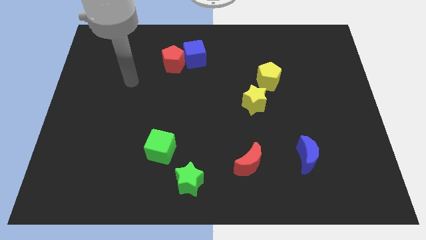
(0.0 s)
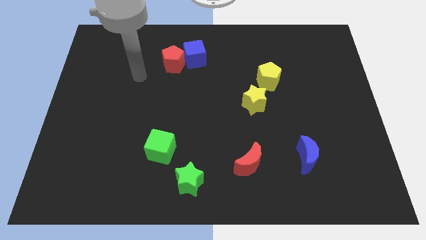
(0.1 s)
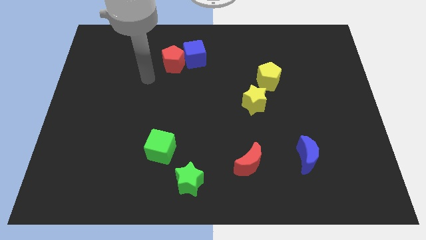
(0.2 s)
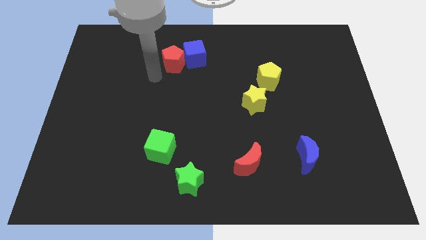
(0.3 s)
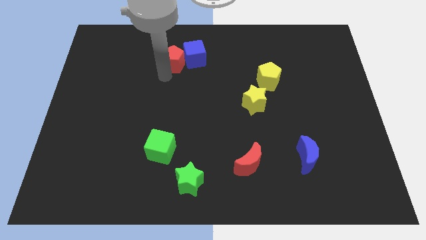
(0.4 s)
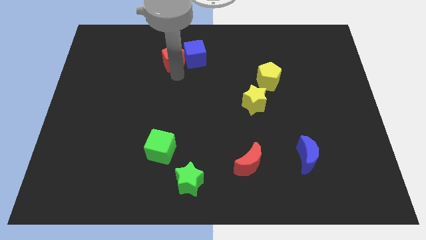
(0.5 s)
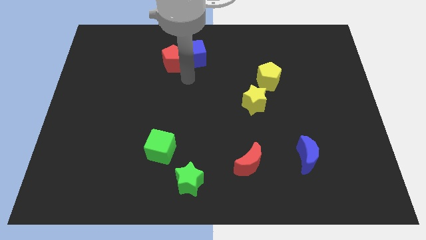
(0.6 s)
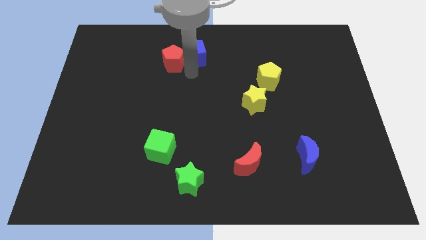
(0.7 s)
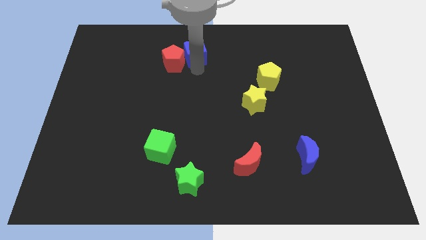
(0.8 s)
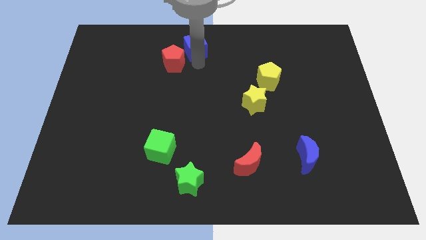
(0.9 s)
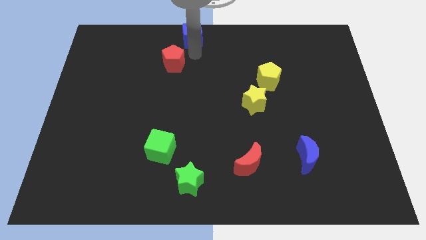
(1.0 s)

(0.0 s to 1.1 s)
move the red pentagon away from the blue cube

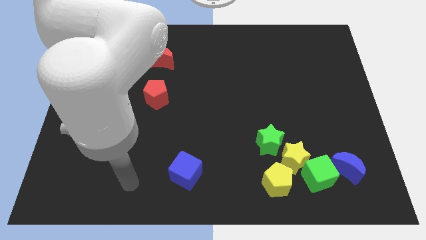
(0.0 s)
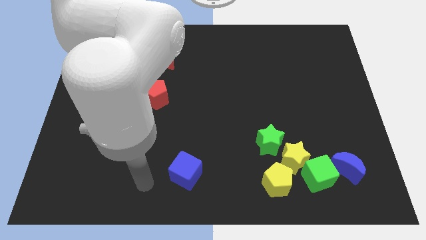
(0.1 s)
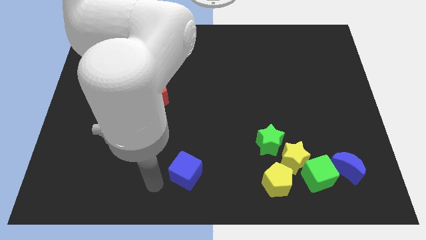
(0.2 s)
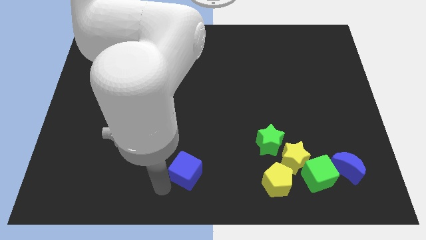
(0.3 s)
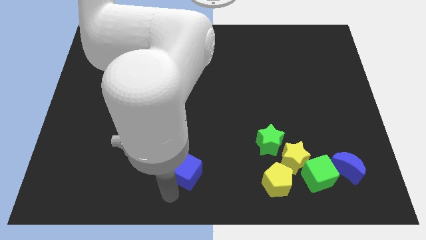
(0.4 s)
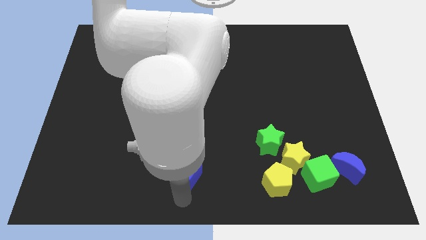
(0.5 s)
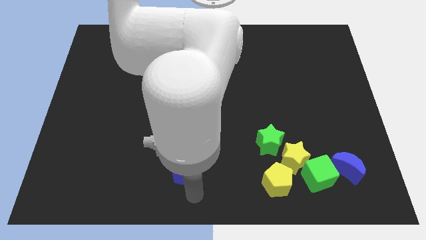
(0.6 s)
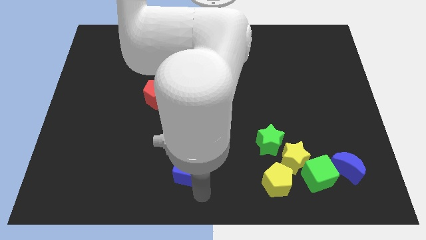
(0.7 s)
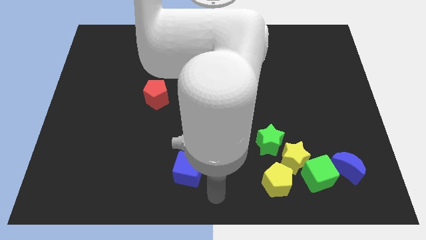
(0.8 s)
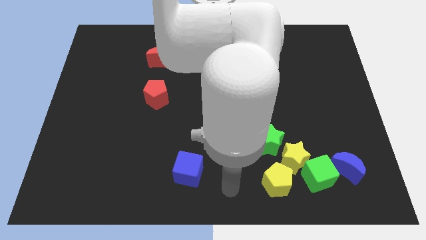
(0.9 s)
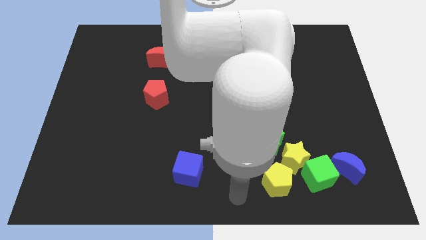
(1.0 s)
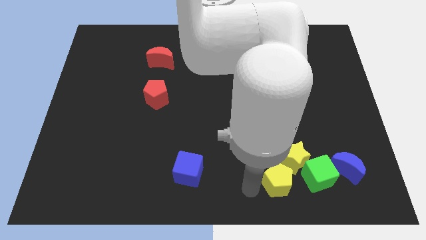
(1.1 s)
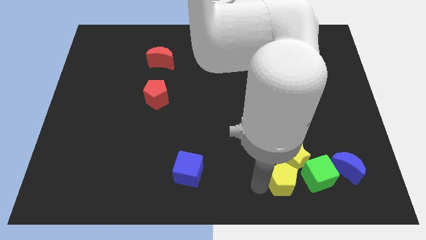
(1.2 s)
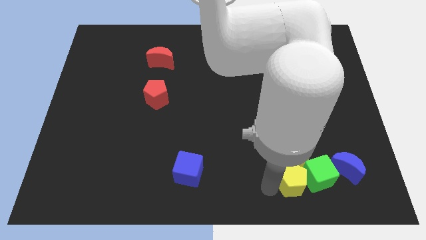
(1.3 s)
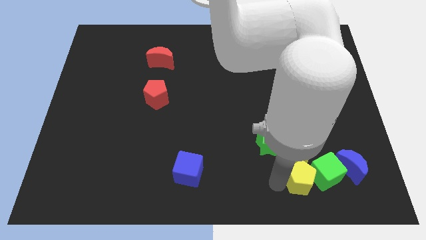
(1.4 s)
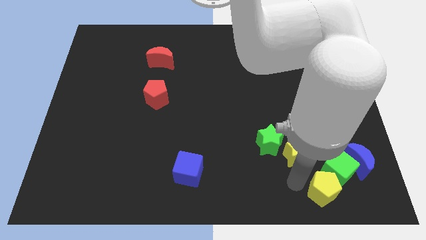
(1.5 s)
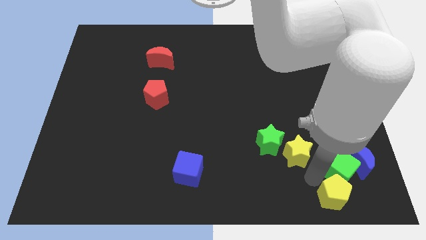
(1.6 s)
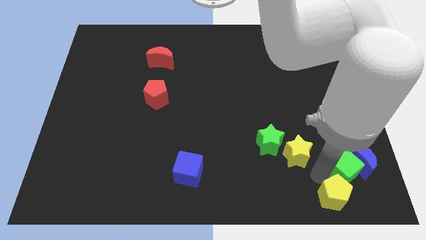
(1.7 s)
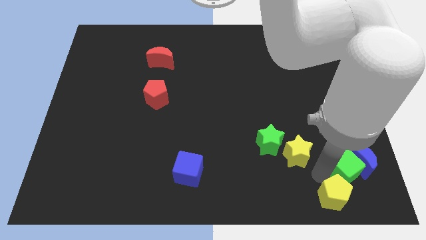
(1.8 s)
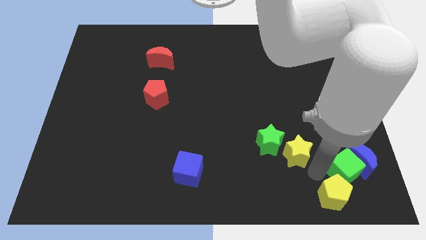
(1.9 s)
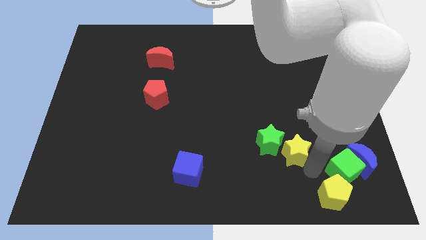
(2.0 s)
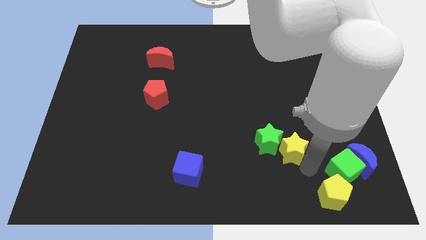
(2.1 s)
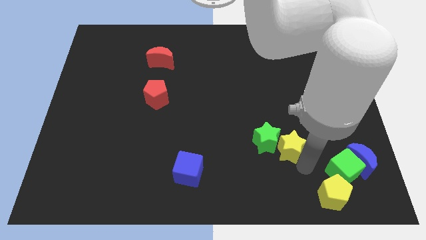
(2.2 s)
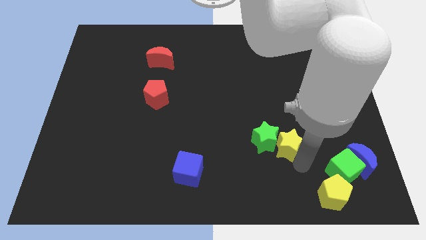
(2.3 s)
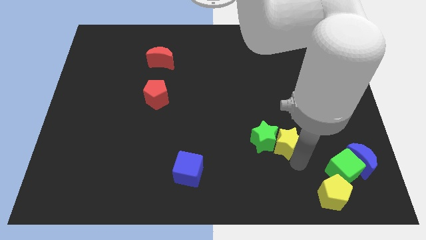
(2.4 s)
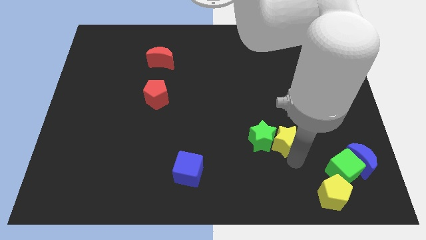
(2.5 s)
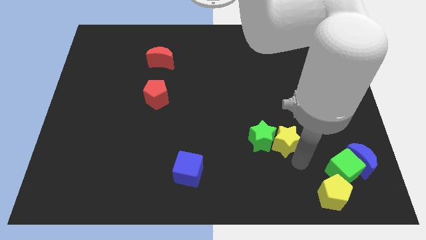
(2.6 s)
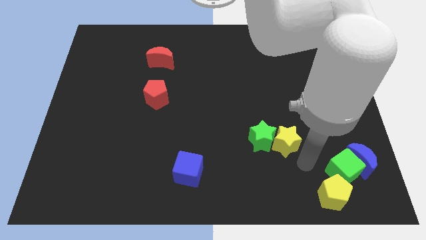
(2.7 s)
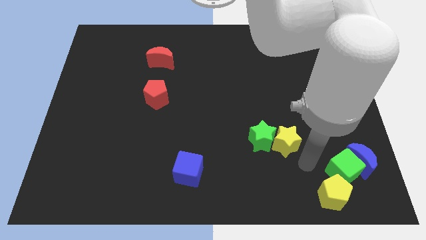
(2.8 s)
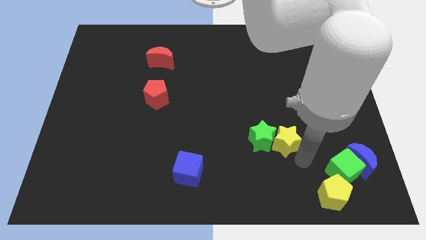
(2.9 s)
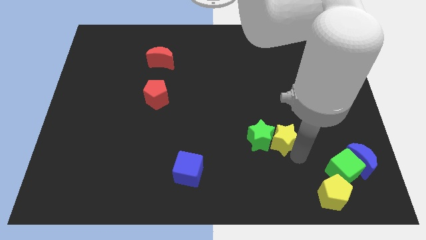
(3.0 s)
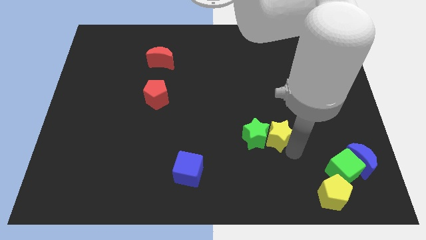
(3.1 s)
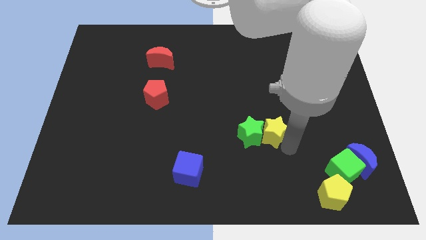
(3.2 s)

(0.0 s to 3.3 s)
separate the yellow star from the green star, green cube, and yellow pentagon

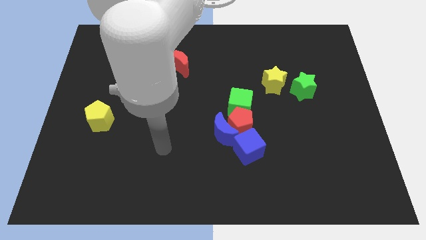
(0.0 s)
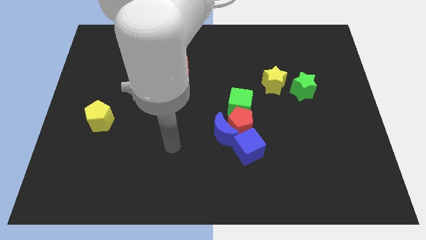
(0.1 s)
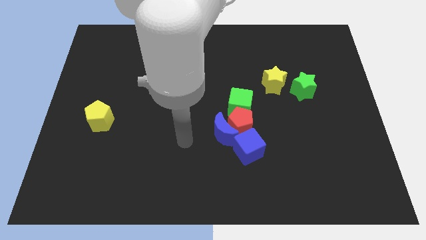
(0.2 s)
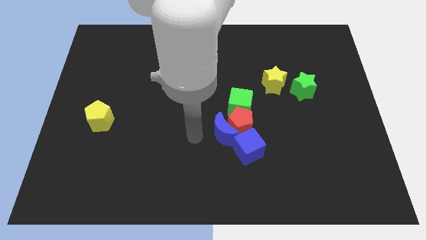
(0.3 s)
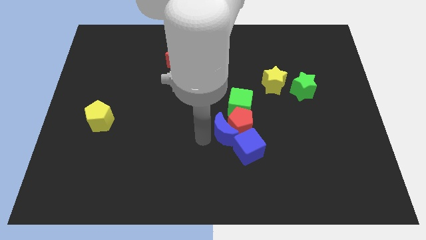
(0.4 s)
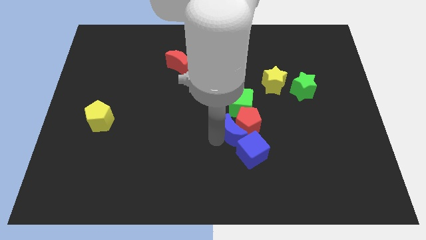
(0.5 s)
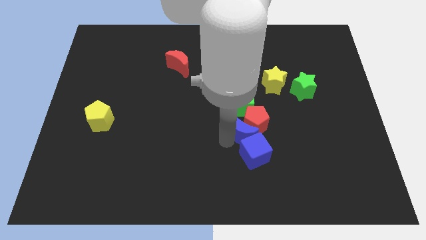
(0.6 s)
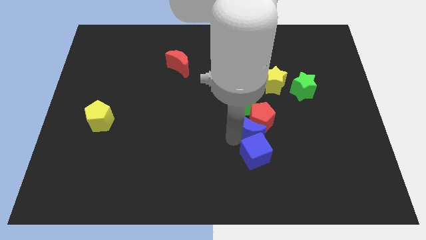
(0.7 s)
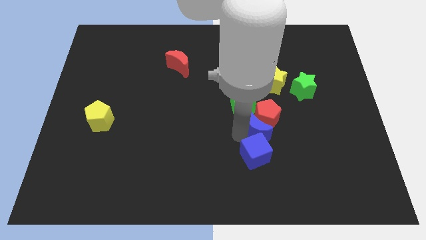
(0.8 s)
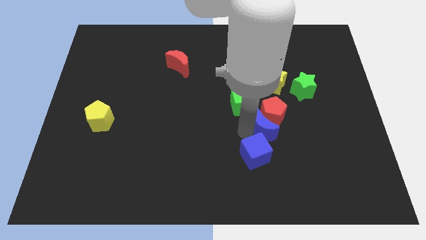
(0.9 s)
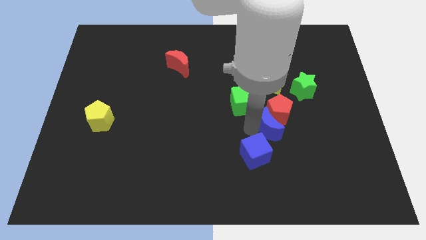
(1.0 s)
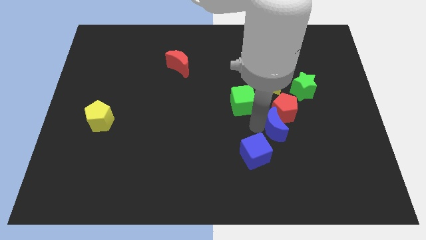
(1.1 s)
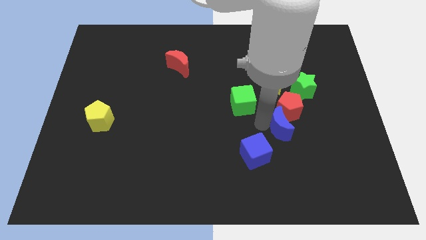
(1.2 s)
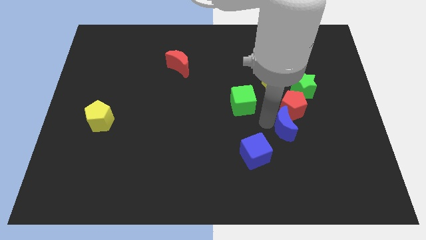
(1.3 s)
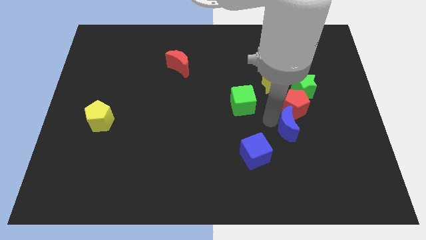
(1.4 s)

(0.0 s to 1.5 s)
move the red pentagon away from the blue moon, green cube, and blue cube

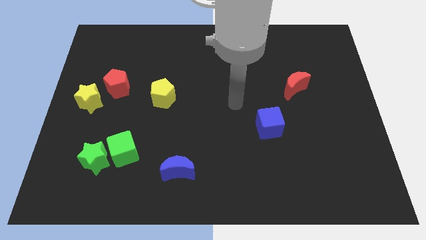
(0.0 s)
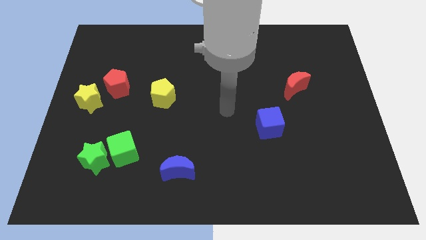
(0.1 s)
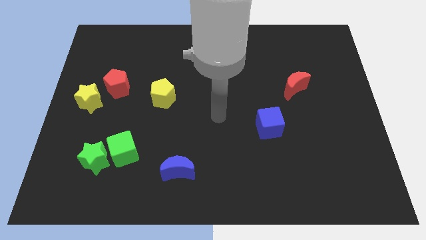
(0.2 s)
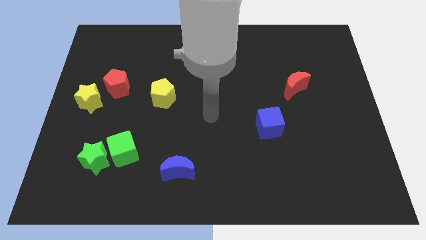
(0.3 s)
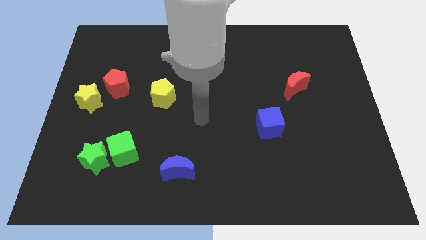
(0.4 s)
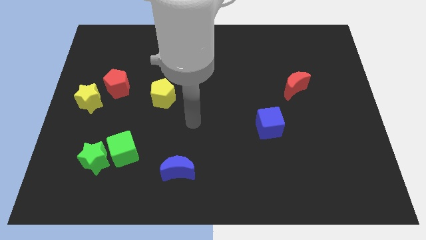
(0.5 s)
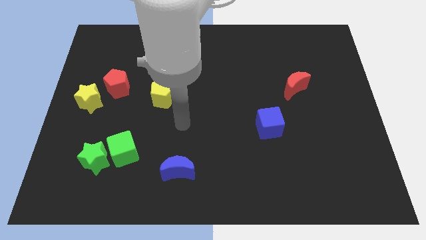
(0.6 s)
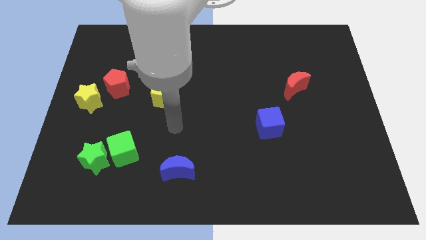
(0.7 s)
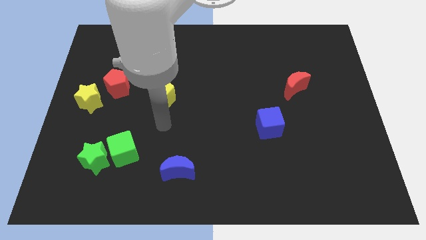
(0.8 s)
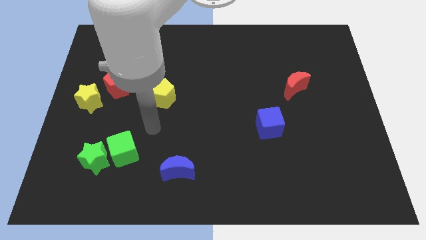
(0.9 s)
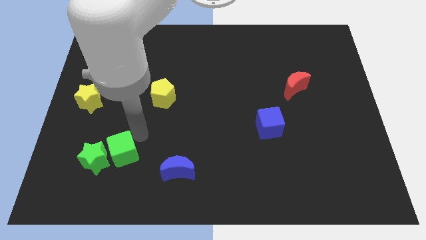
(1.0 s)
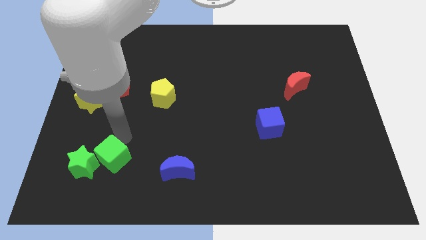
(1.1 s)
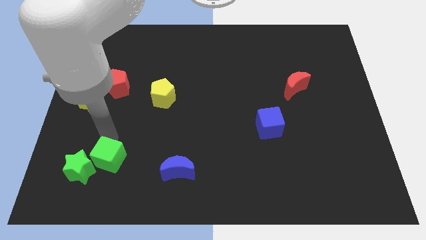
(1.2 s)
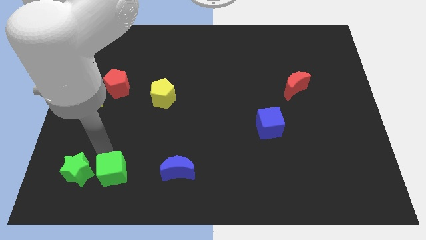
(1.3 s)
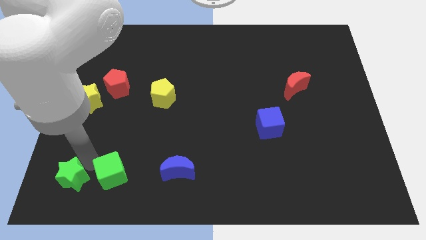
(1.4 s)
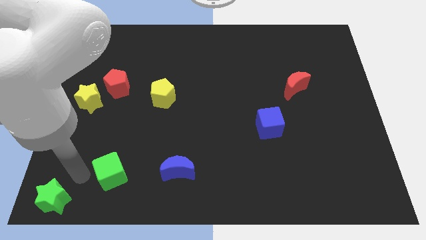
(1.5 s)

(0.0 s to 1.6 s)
pull the green cube apart from the green star

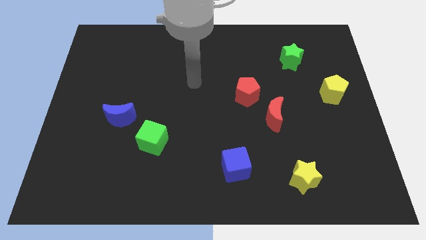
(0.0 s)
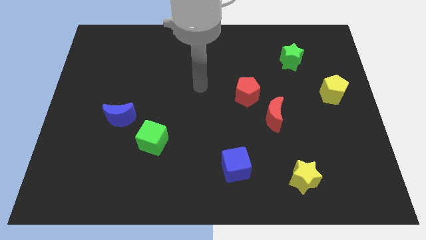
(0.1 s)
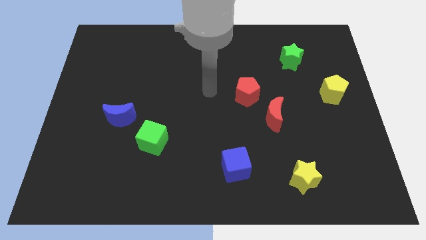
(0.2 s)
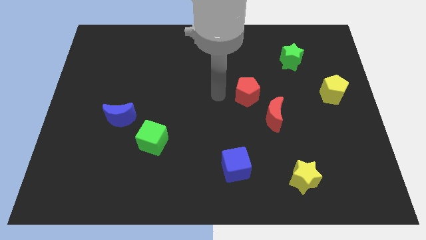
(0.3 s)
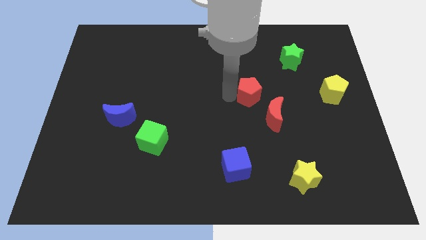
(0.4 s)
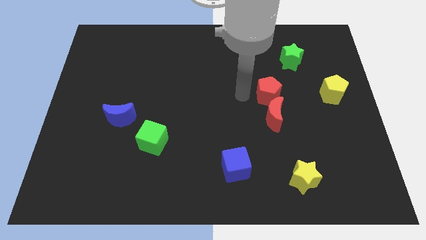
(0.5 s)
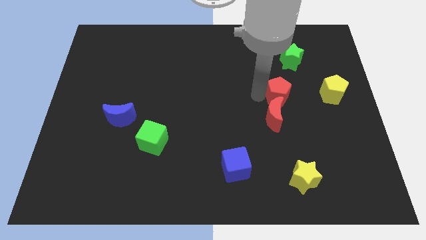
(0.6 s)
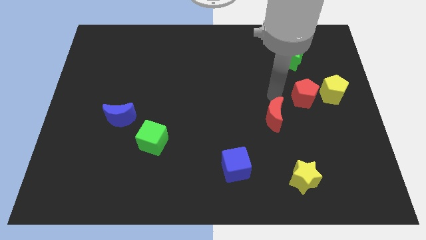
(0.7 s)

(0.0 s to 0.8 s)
pull the red moon apart from the red pentagon

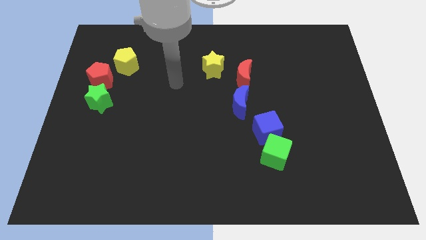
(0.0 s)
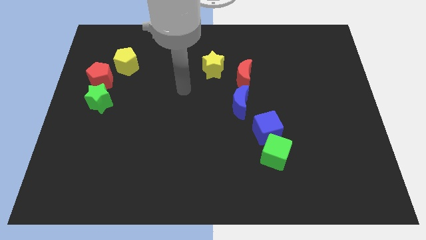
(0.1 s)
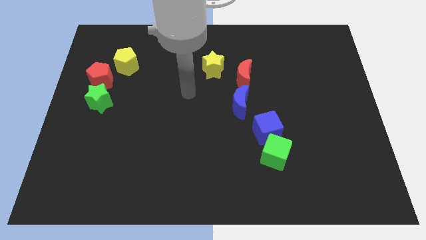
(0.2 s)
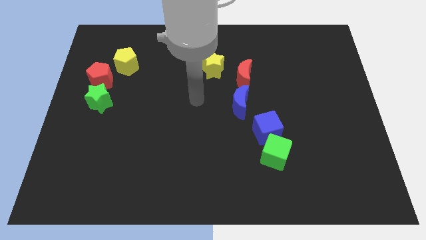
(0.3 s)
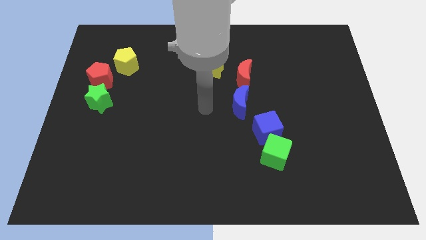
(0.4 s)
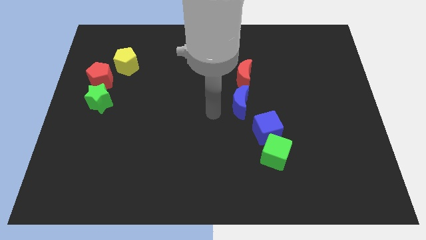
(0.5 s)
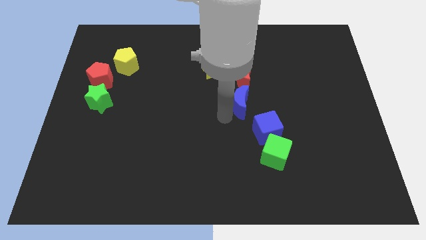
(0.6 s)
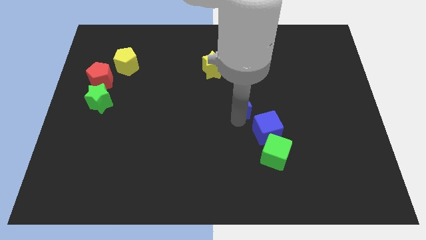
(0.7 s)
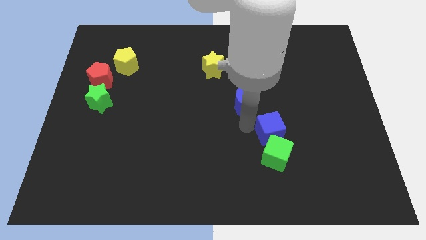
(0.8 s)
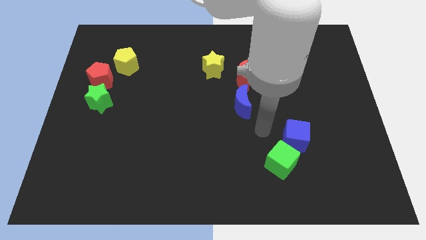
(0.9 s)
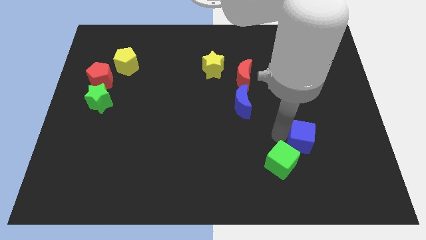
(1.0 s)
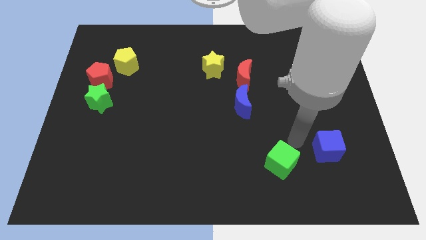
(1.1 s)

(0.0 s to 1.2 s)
pull the green cube apart from the blue cube
